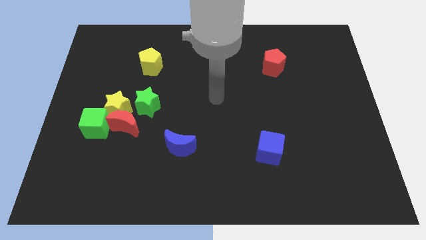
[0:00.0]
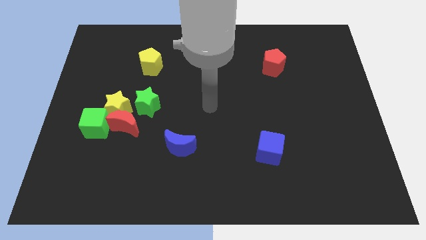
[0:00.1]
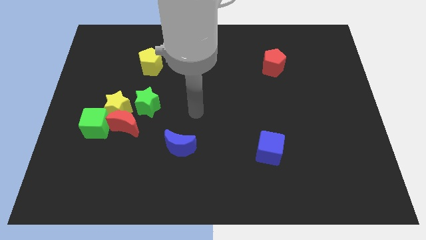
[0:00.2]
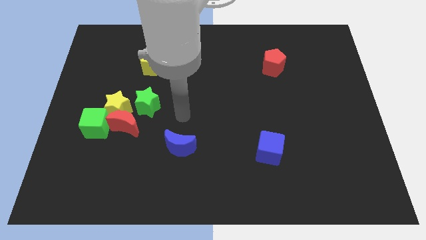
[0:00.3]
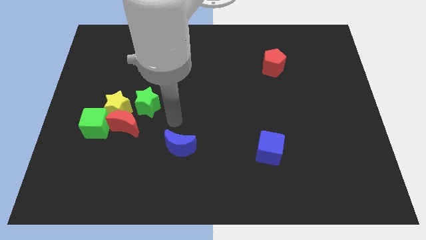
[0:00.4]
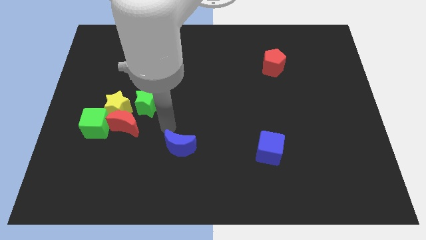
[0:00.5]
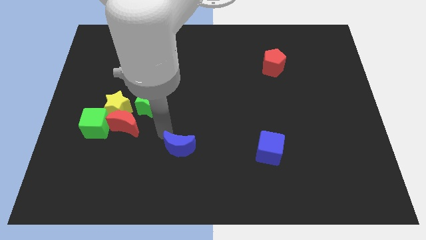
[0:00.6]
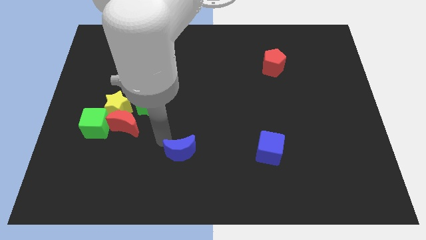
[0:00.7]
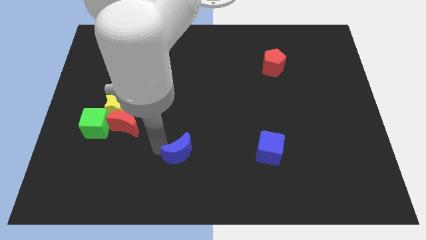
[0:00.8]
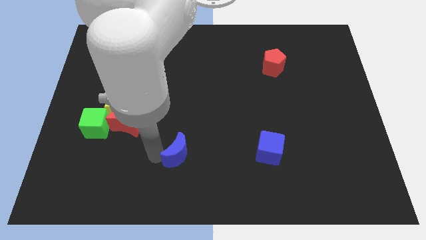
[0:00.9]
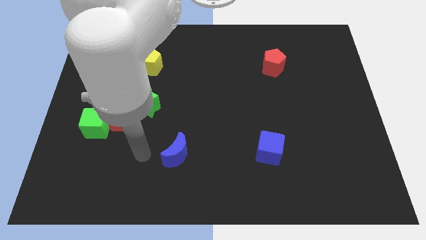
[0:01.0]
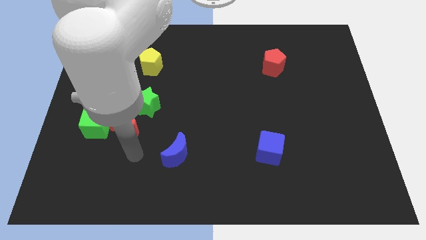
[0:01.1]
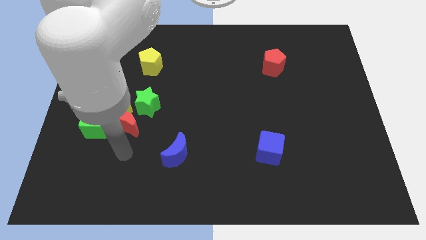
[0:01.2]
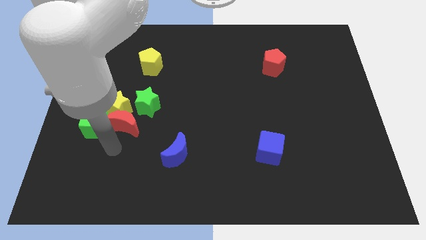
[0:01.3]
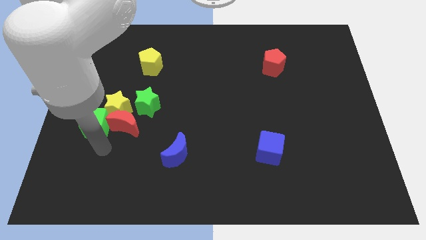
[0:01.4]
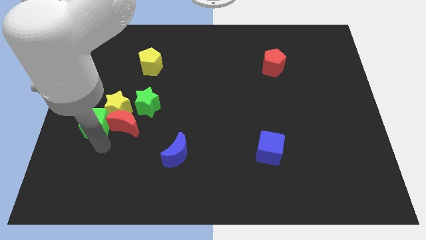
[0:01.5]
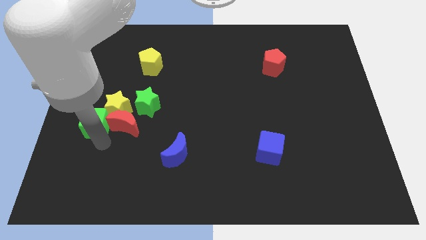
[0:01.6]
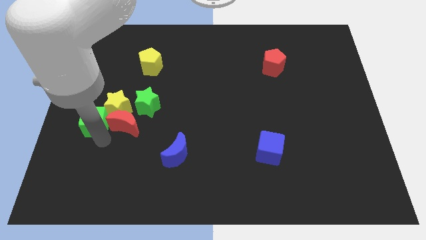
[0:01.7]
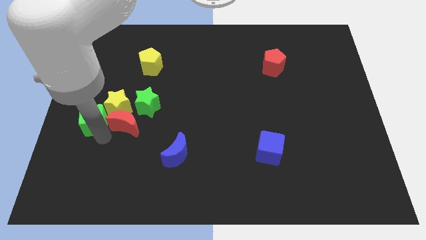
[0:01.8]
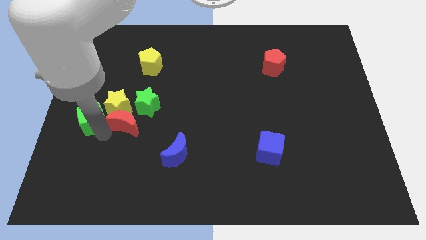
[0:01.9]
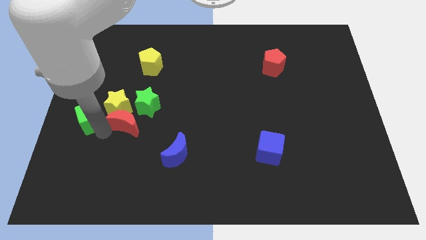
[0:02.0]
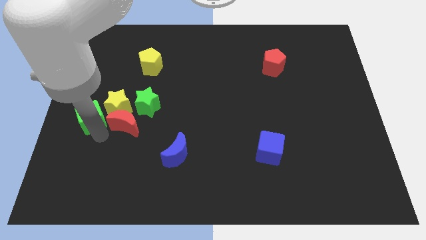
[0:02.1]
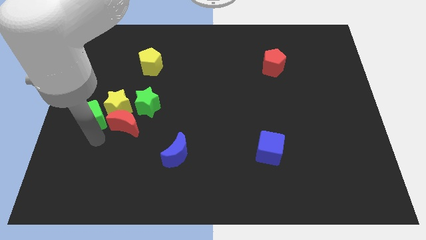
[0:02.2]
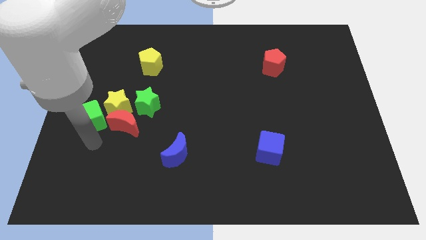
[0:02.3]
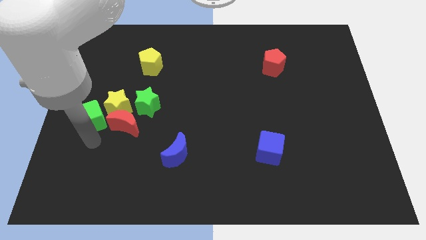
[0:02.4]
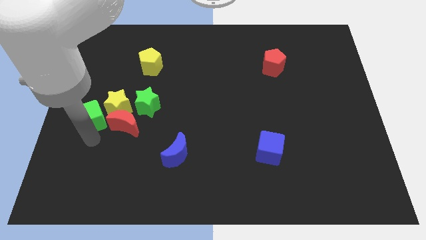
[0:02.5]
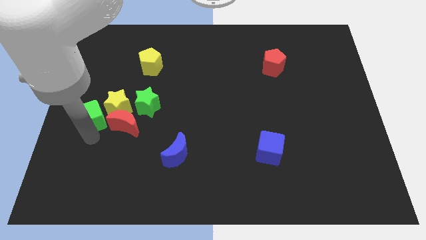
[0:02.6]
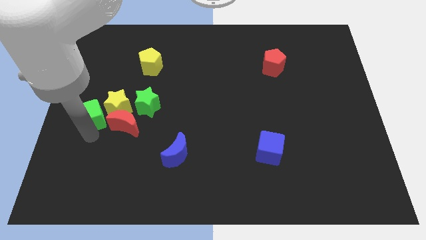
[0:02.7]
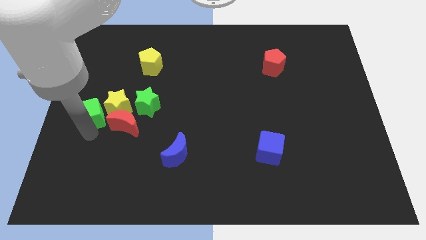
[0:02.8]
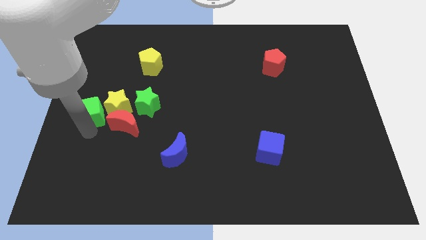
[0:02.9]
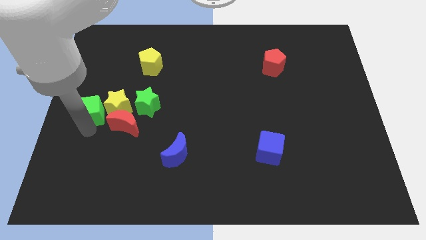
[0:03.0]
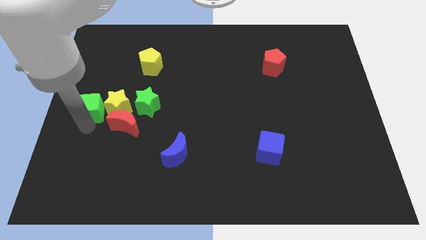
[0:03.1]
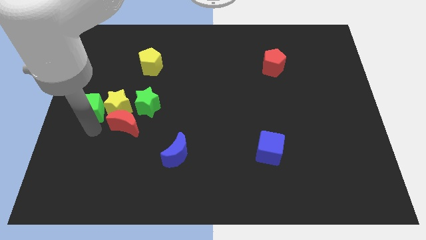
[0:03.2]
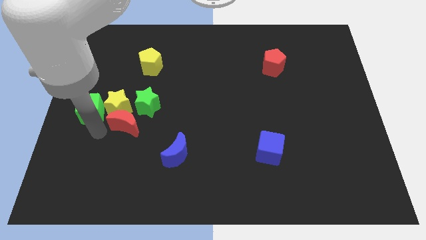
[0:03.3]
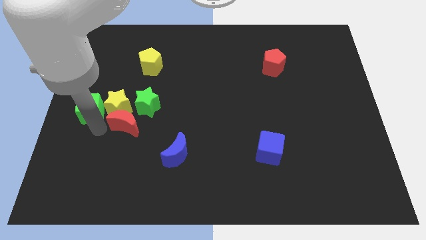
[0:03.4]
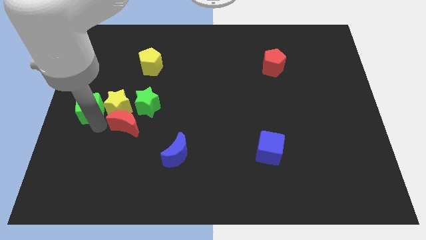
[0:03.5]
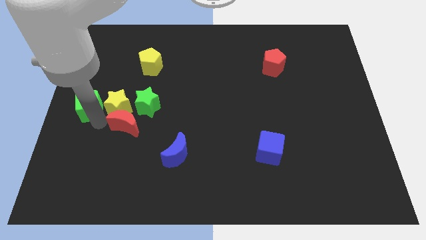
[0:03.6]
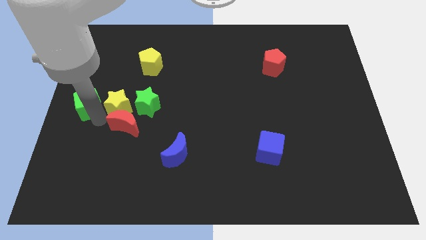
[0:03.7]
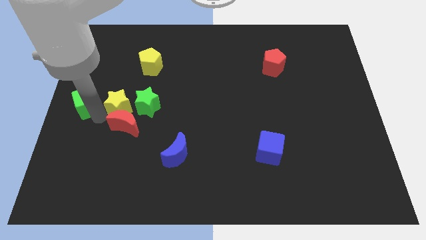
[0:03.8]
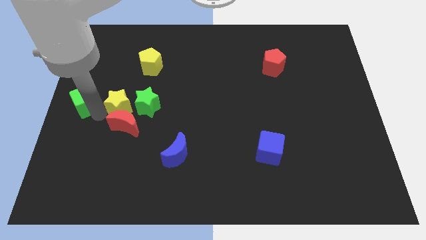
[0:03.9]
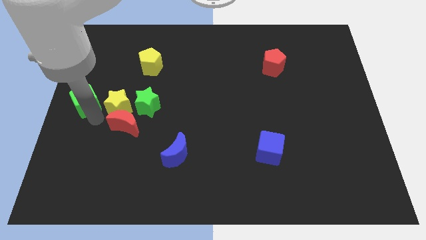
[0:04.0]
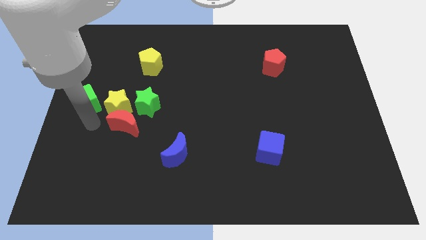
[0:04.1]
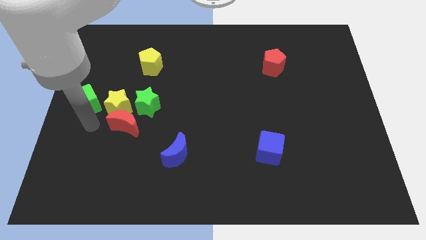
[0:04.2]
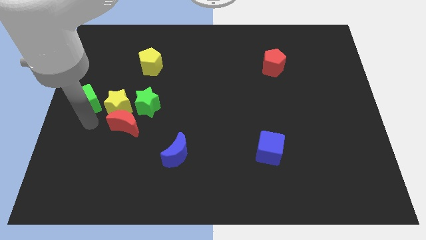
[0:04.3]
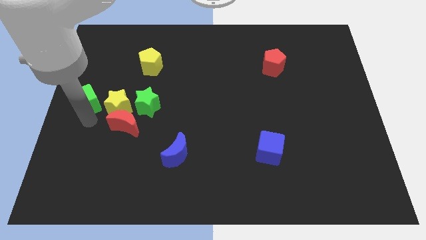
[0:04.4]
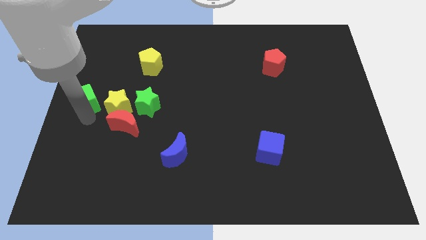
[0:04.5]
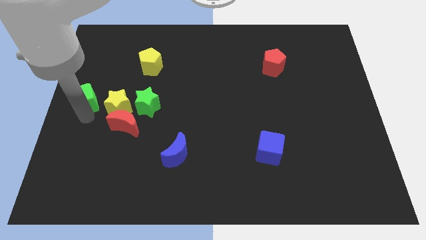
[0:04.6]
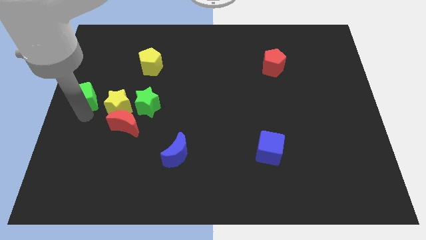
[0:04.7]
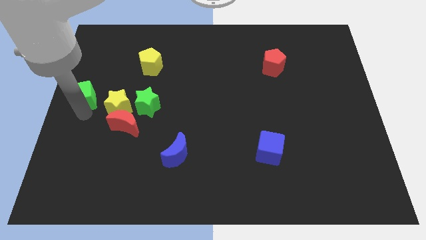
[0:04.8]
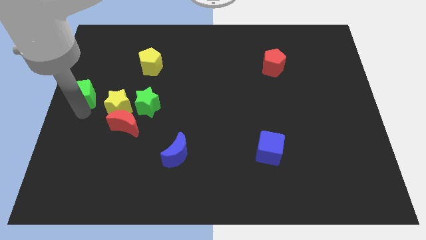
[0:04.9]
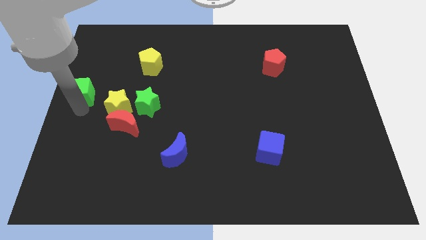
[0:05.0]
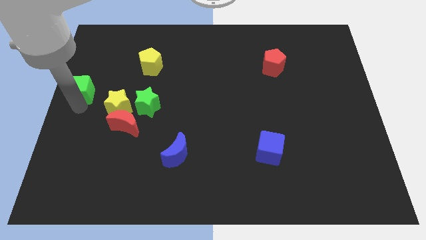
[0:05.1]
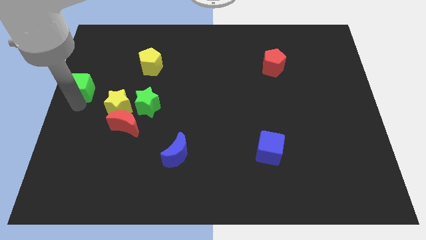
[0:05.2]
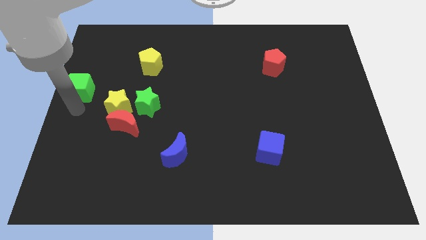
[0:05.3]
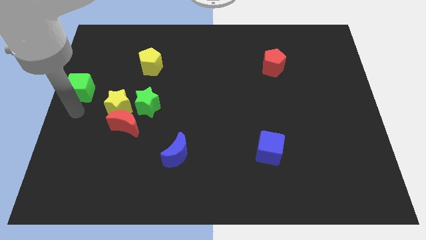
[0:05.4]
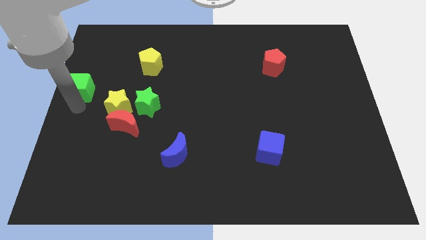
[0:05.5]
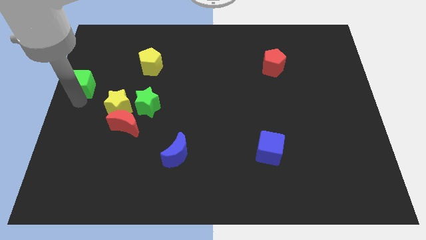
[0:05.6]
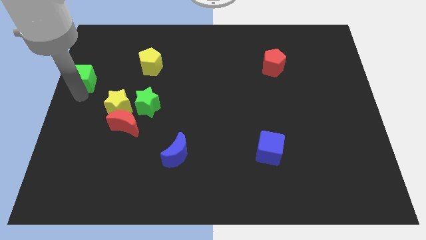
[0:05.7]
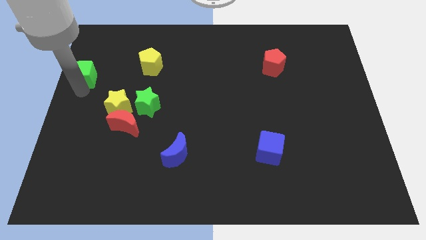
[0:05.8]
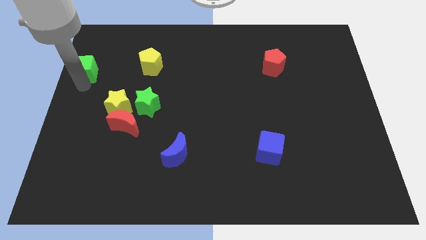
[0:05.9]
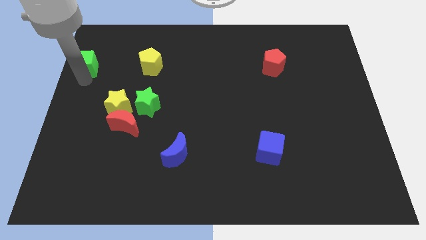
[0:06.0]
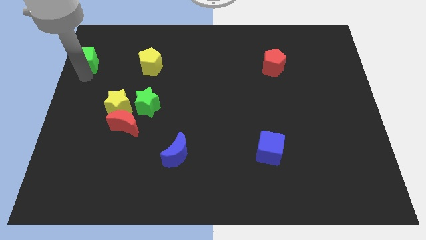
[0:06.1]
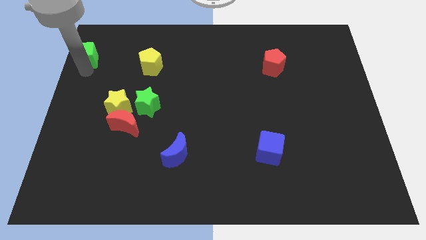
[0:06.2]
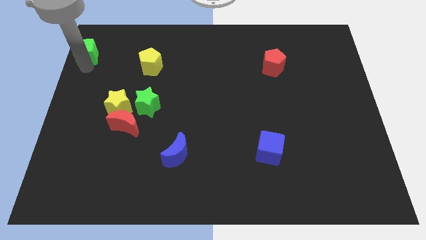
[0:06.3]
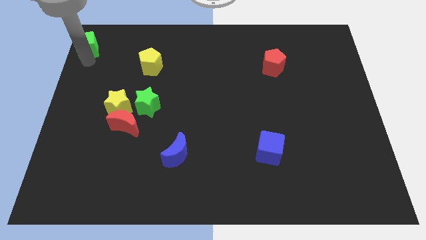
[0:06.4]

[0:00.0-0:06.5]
put the green cube to the top left
